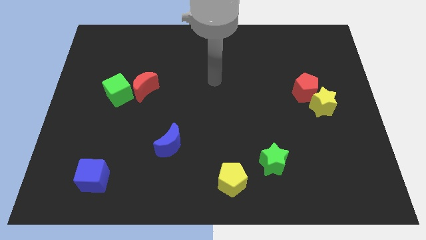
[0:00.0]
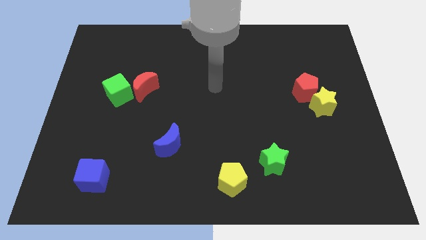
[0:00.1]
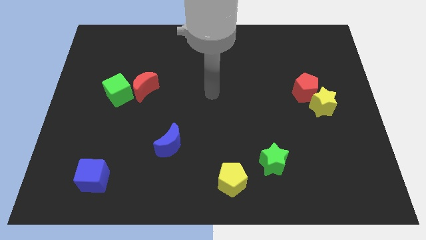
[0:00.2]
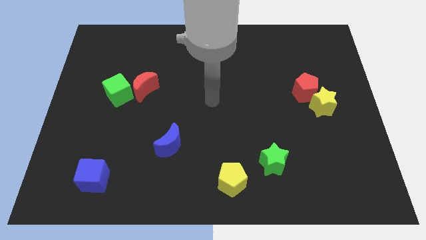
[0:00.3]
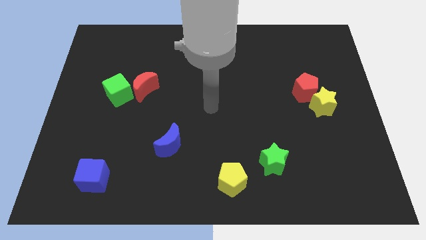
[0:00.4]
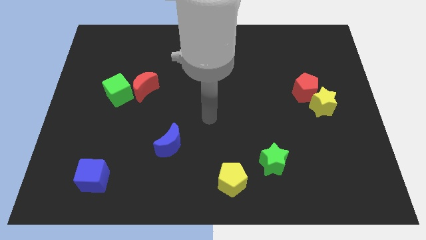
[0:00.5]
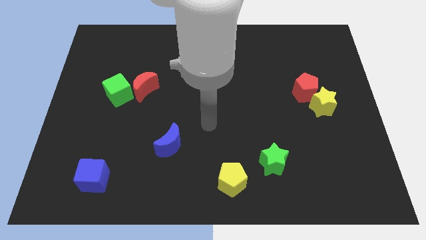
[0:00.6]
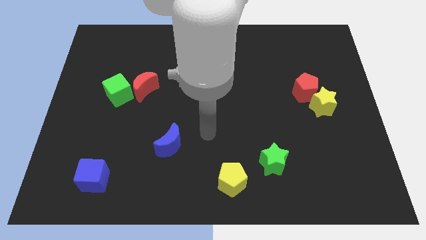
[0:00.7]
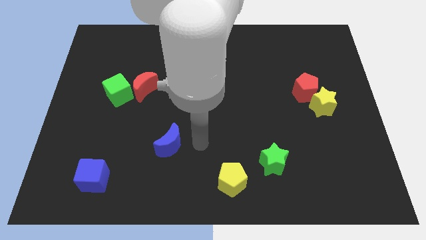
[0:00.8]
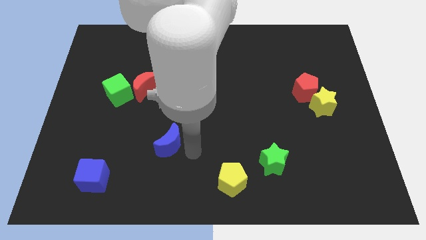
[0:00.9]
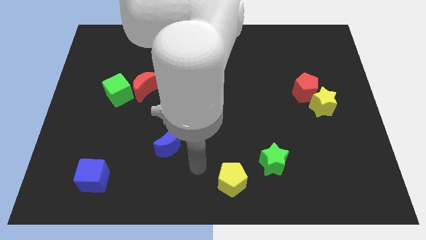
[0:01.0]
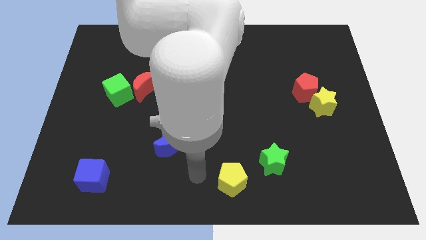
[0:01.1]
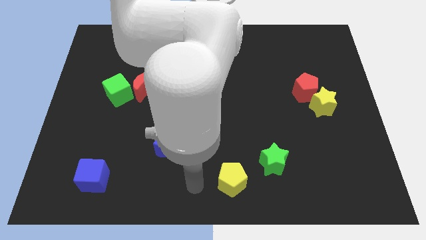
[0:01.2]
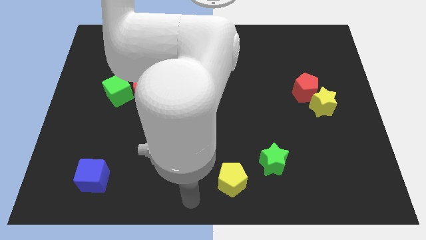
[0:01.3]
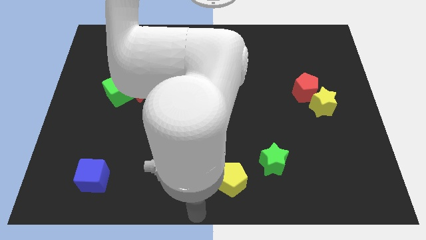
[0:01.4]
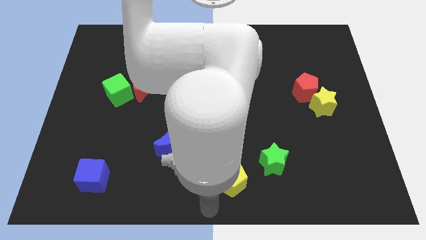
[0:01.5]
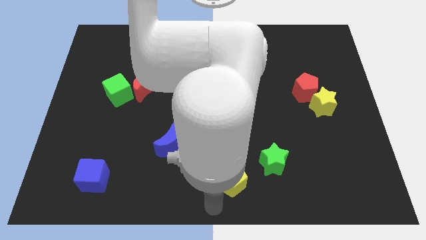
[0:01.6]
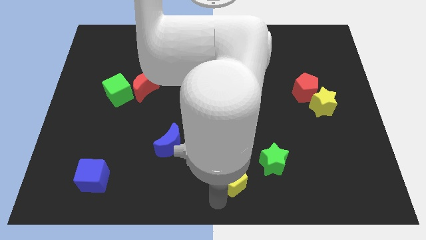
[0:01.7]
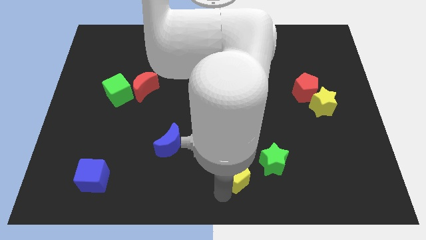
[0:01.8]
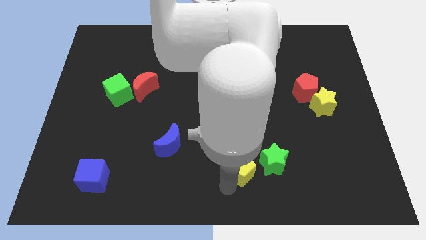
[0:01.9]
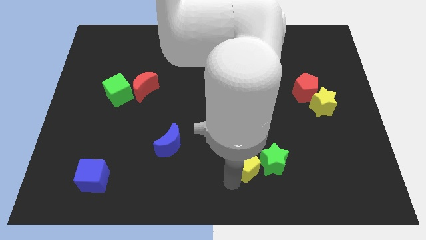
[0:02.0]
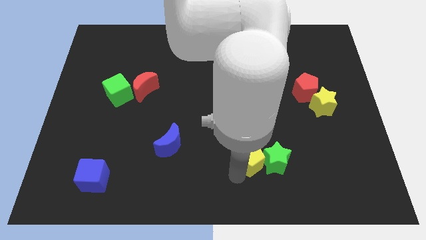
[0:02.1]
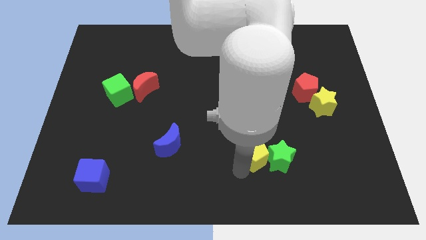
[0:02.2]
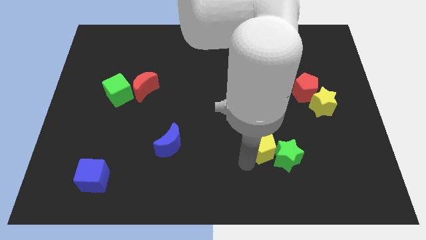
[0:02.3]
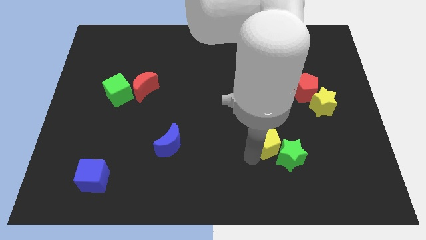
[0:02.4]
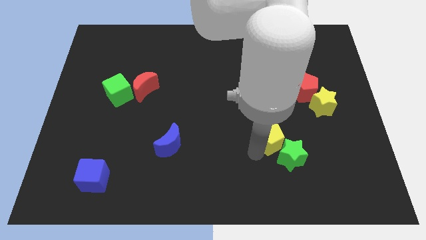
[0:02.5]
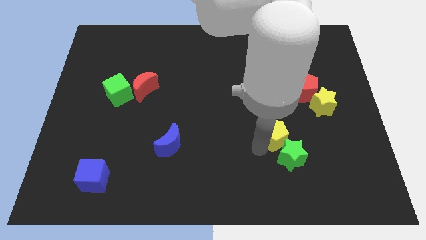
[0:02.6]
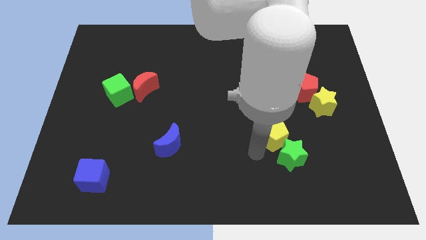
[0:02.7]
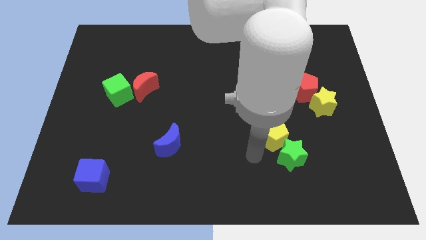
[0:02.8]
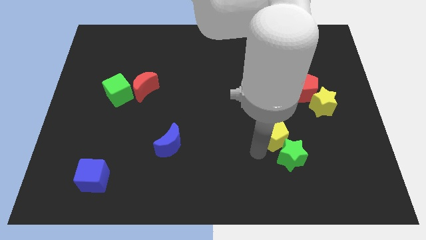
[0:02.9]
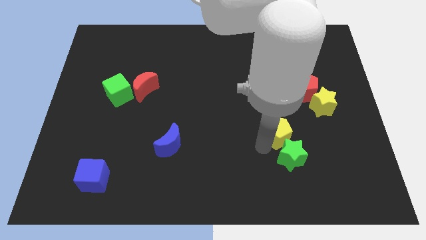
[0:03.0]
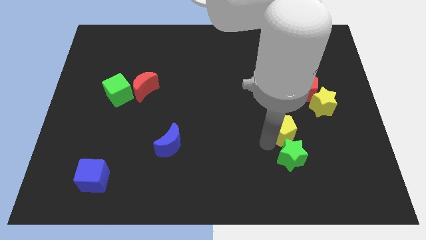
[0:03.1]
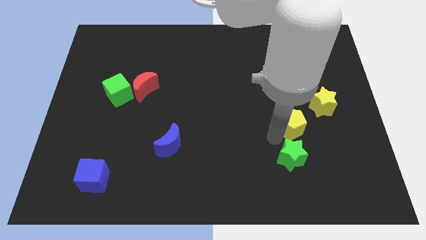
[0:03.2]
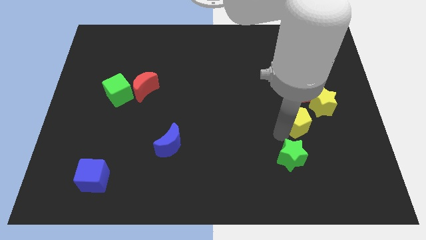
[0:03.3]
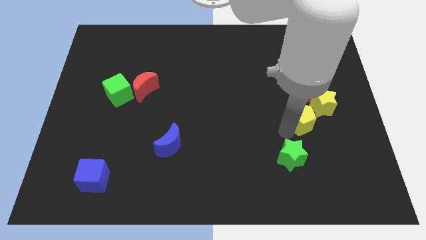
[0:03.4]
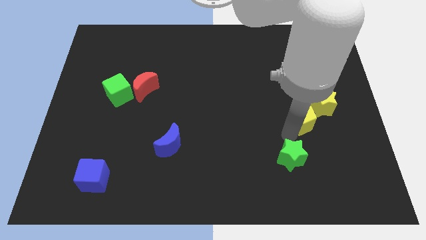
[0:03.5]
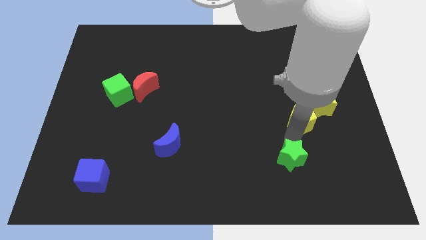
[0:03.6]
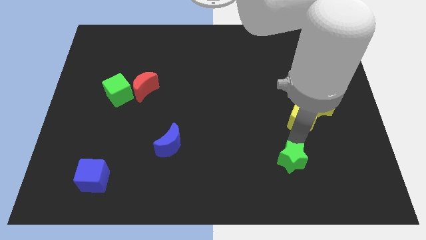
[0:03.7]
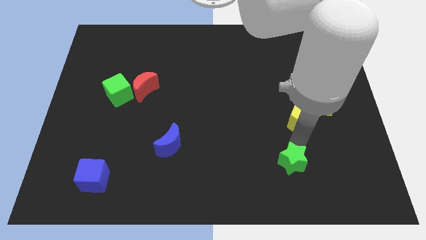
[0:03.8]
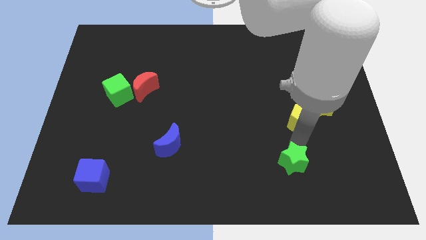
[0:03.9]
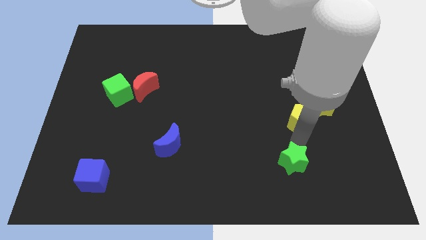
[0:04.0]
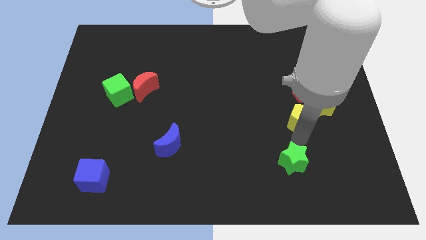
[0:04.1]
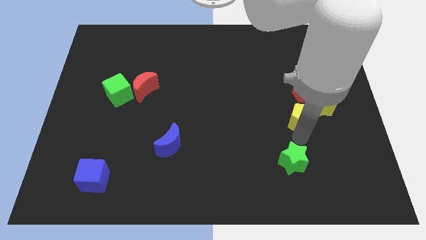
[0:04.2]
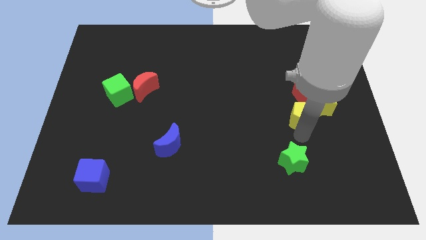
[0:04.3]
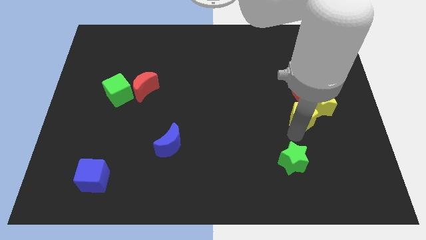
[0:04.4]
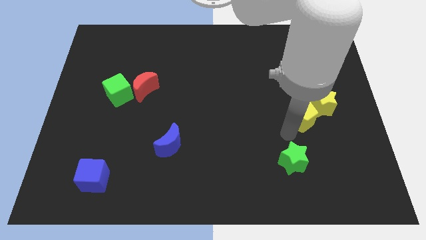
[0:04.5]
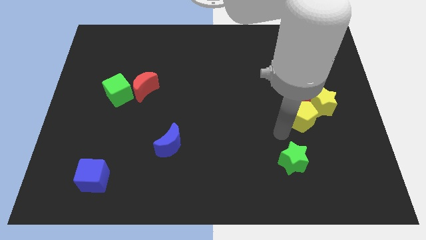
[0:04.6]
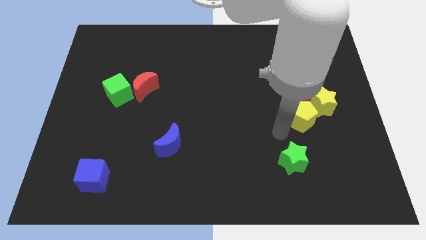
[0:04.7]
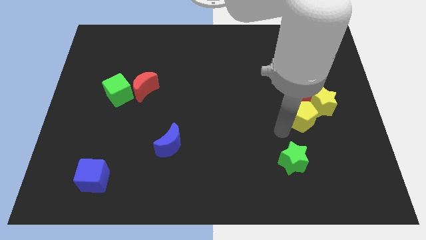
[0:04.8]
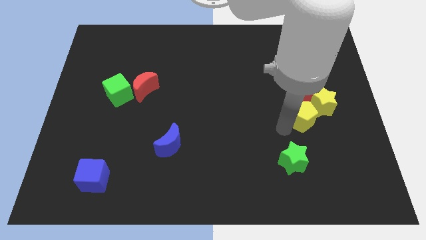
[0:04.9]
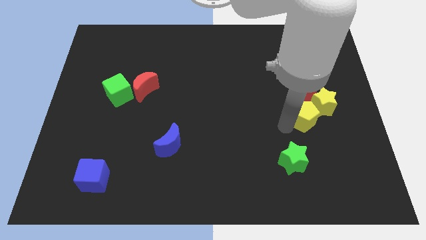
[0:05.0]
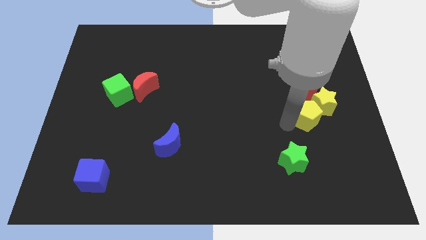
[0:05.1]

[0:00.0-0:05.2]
move the yellow pentagon next to the yellow star

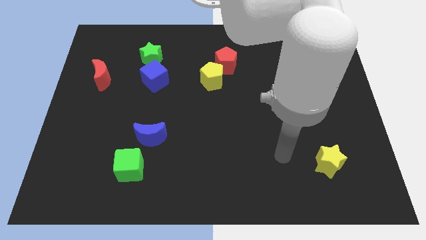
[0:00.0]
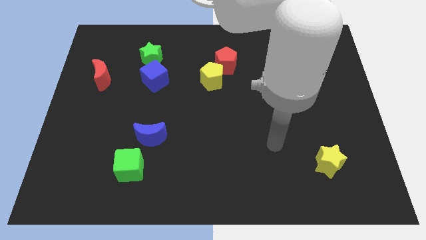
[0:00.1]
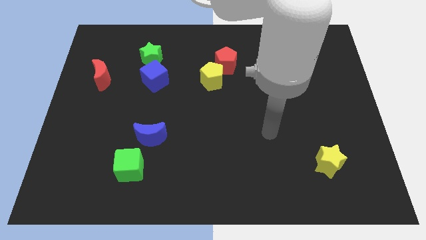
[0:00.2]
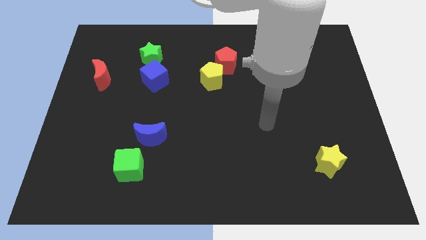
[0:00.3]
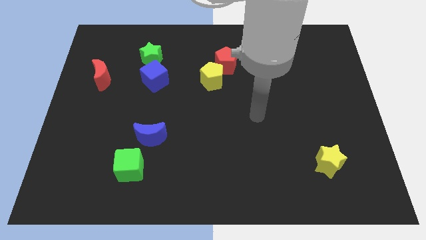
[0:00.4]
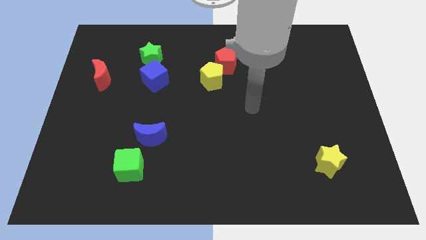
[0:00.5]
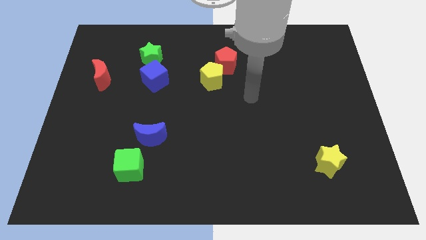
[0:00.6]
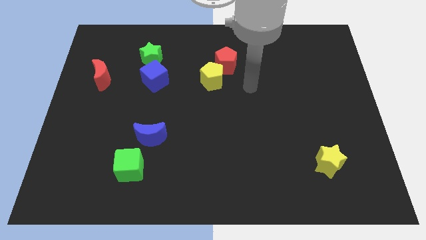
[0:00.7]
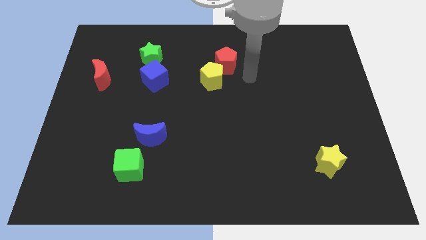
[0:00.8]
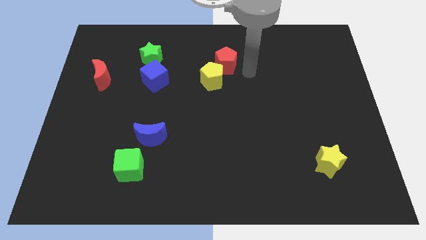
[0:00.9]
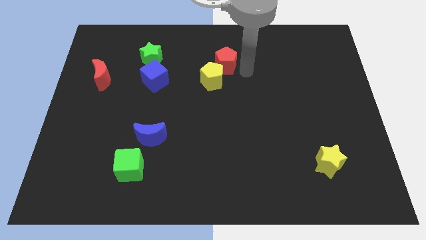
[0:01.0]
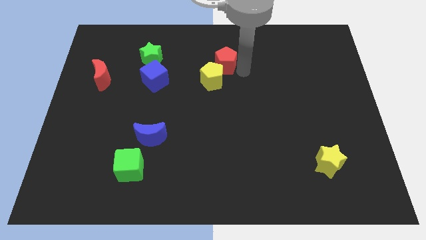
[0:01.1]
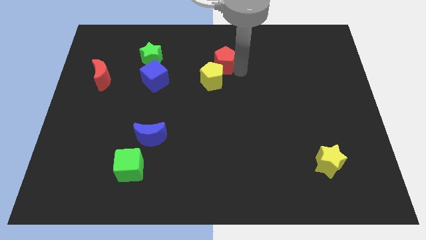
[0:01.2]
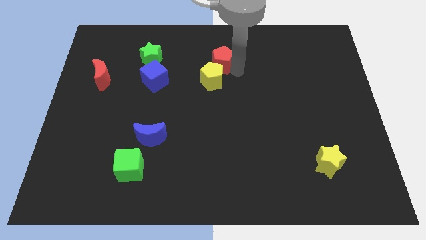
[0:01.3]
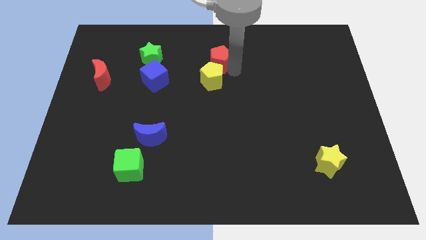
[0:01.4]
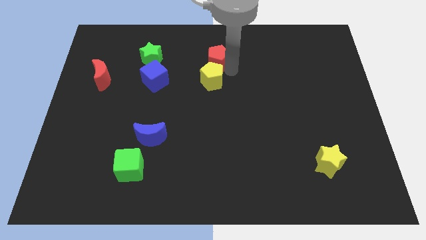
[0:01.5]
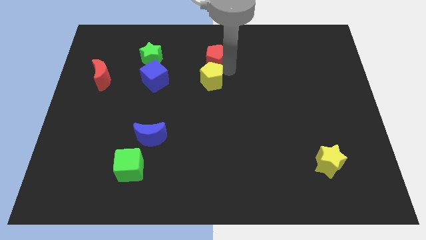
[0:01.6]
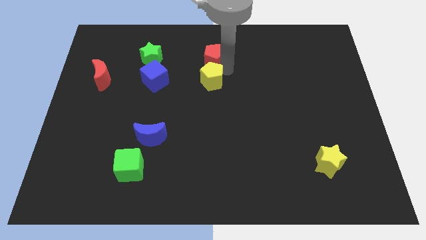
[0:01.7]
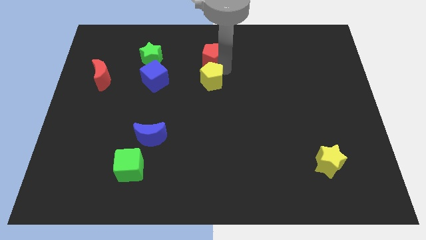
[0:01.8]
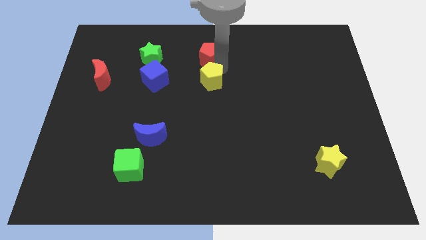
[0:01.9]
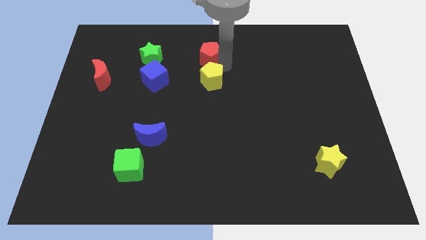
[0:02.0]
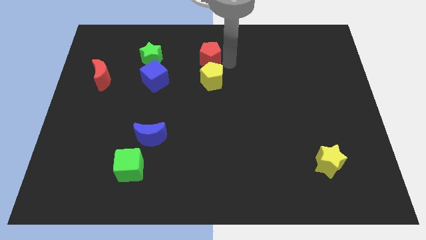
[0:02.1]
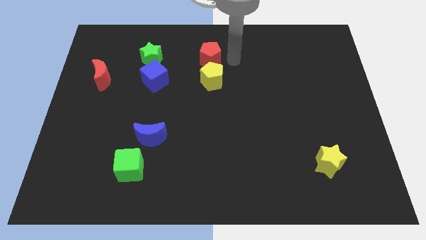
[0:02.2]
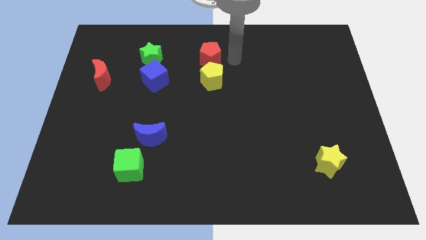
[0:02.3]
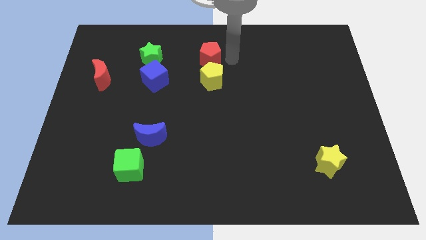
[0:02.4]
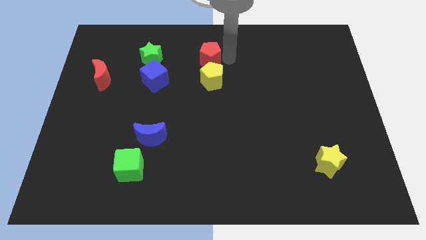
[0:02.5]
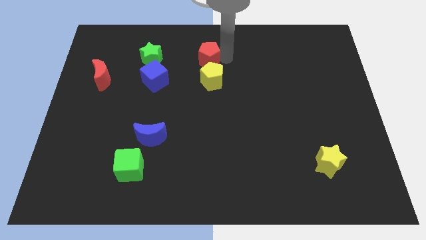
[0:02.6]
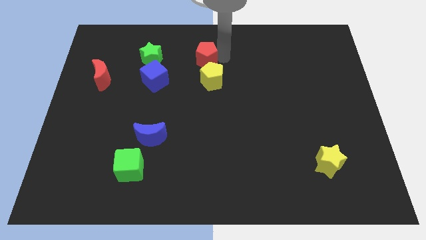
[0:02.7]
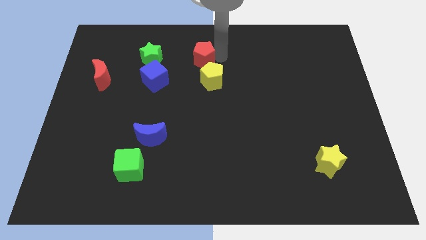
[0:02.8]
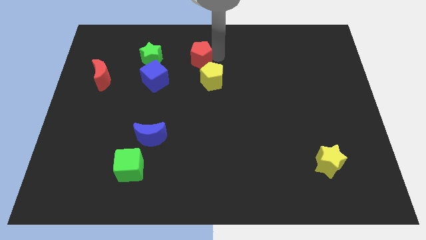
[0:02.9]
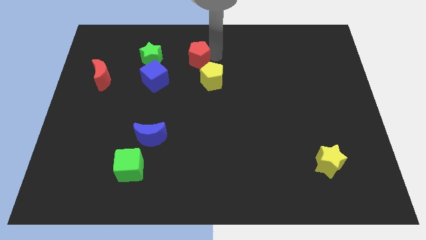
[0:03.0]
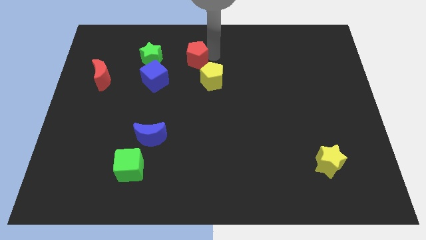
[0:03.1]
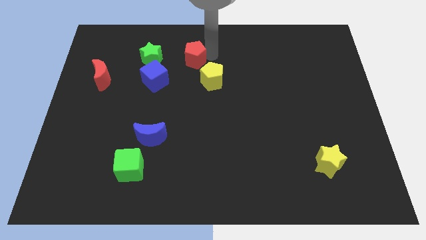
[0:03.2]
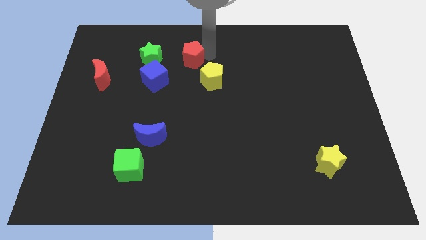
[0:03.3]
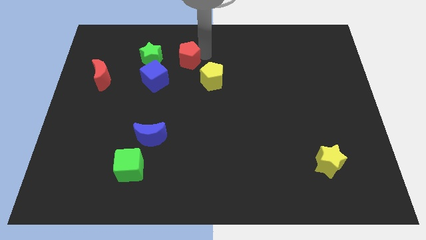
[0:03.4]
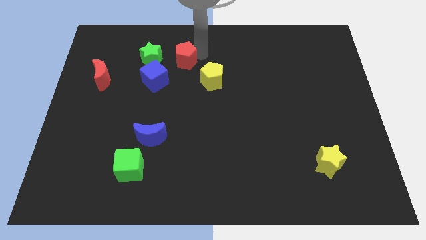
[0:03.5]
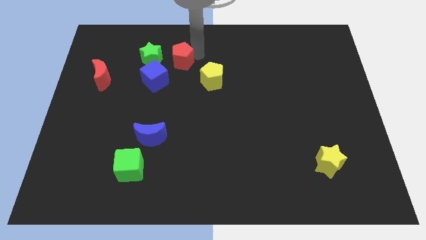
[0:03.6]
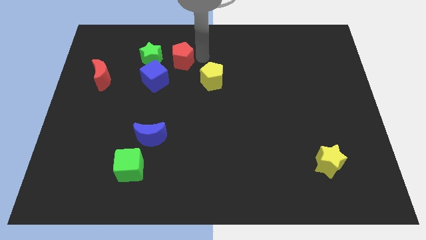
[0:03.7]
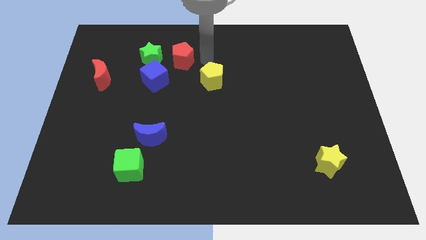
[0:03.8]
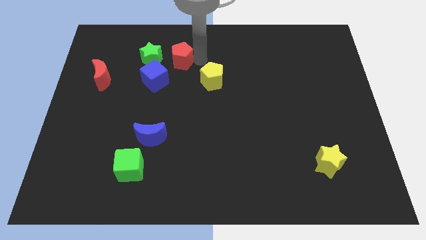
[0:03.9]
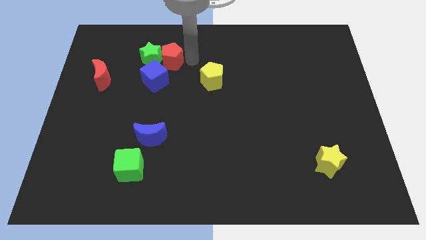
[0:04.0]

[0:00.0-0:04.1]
move the red pentagon close to the green star
